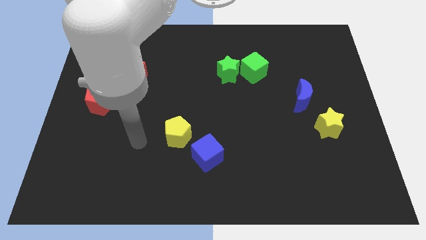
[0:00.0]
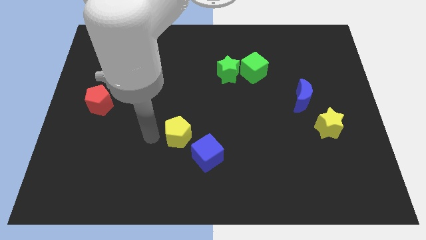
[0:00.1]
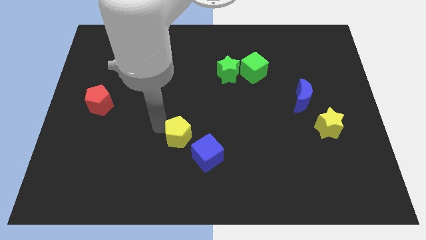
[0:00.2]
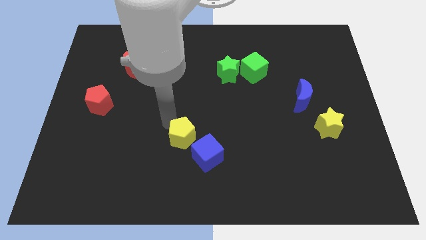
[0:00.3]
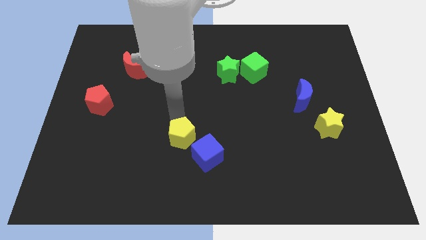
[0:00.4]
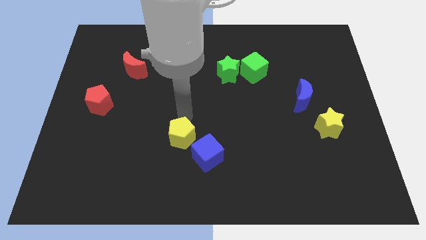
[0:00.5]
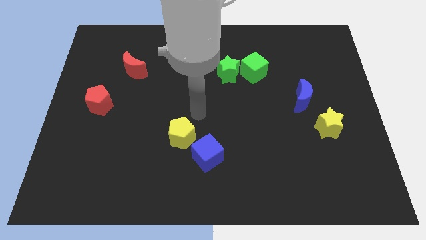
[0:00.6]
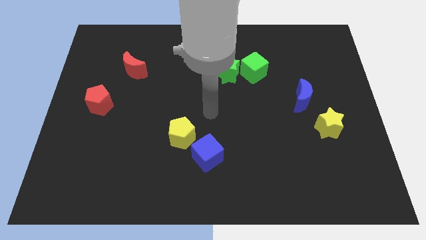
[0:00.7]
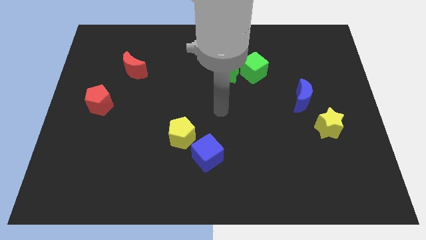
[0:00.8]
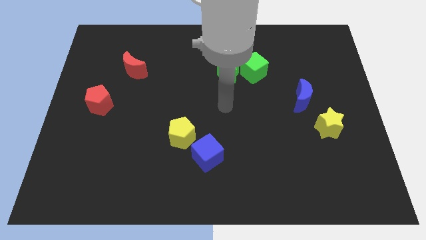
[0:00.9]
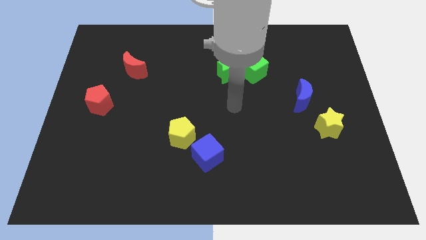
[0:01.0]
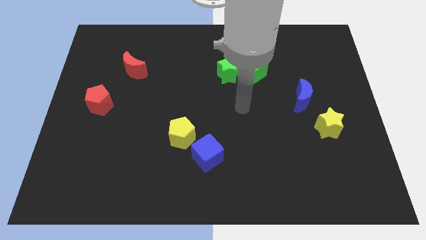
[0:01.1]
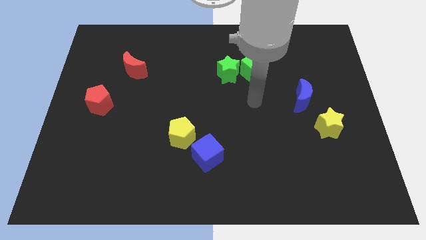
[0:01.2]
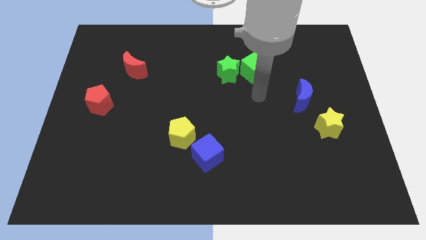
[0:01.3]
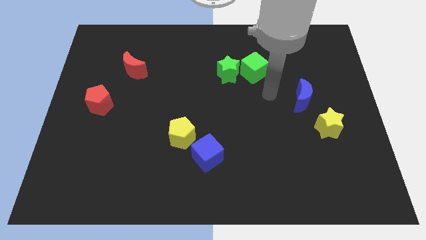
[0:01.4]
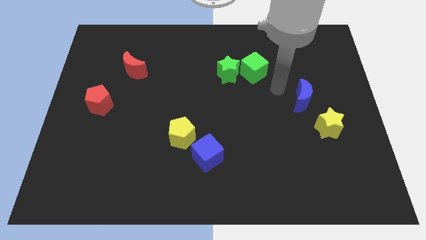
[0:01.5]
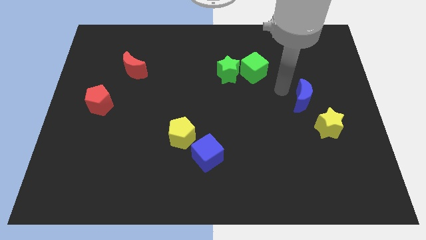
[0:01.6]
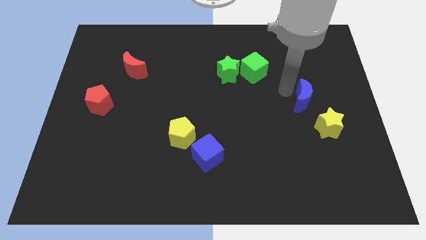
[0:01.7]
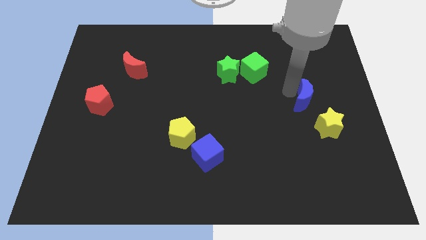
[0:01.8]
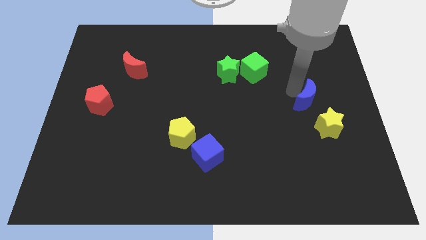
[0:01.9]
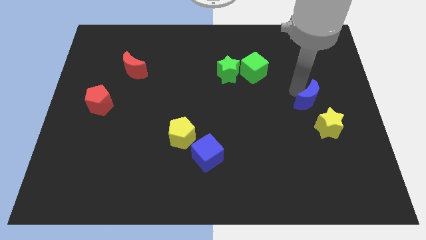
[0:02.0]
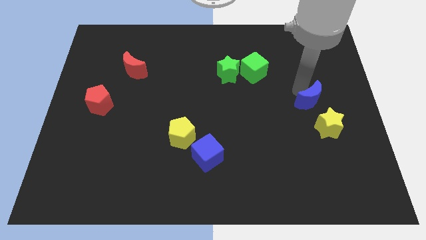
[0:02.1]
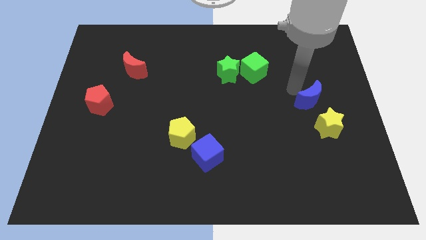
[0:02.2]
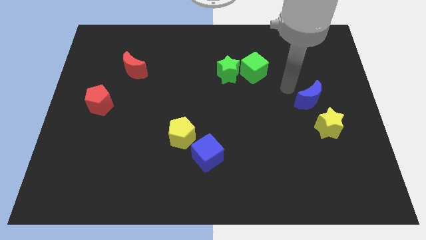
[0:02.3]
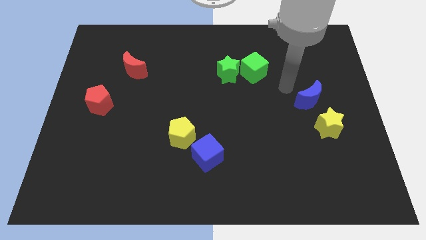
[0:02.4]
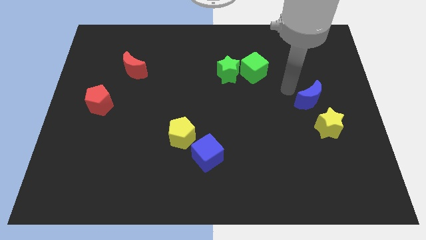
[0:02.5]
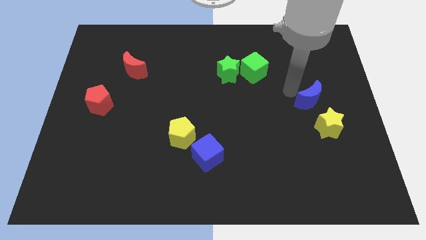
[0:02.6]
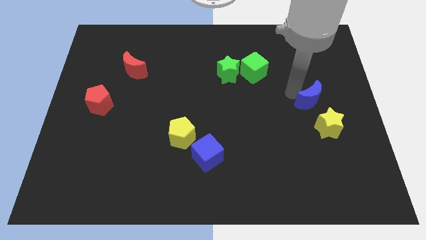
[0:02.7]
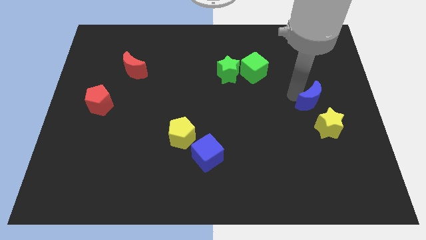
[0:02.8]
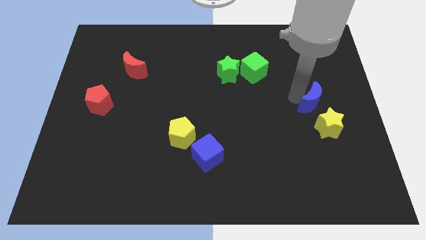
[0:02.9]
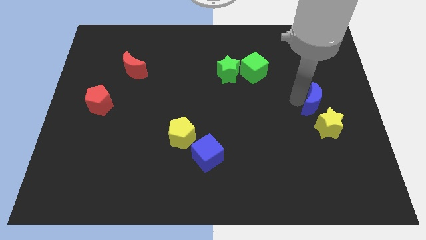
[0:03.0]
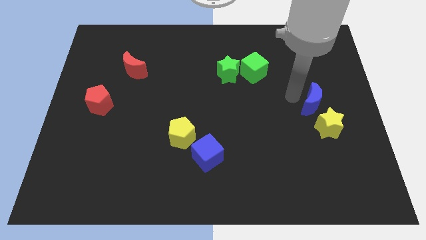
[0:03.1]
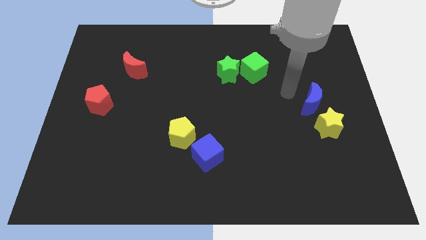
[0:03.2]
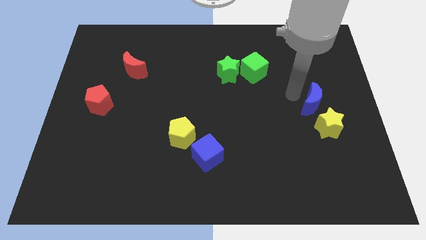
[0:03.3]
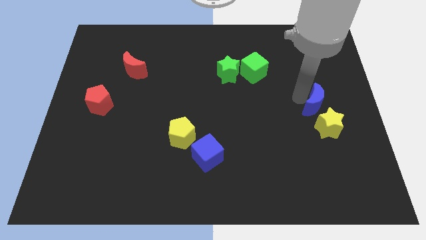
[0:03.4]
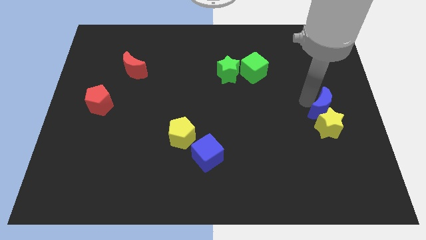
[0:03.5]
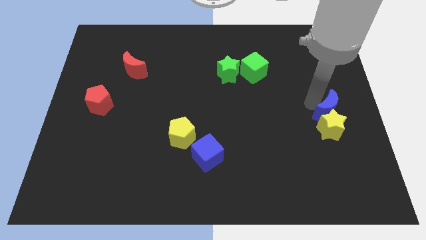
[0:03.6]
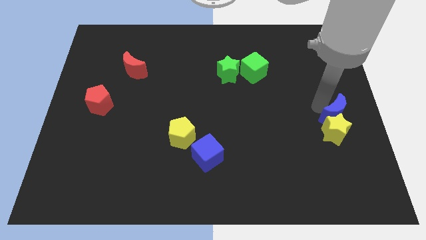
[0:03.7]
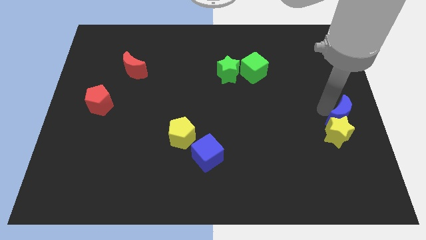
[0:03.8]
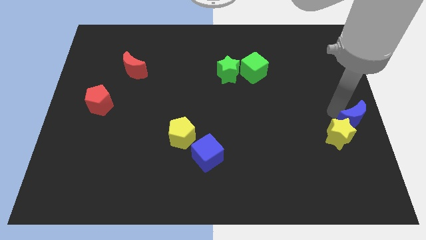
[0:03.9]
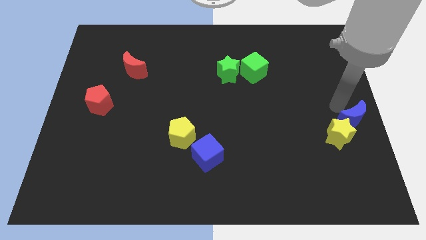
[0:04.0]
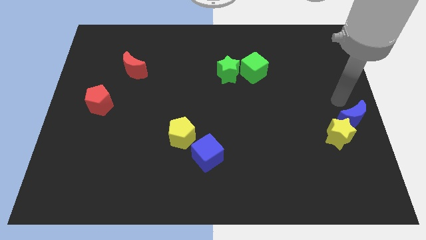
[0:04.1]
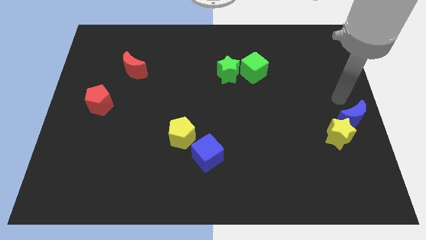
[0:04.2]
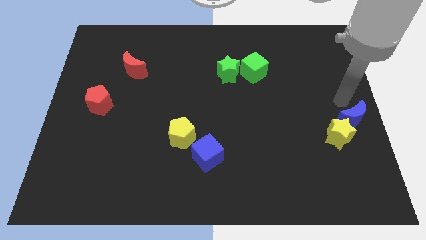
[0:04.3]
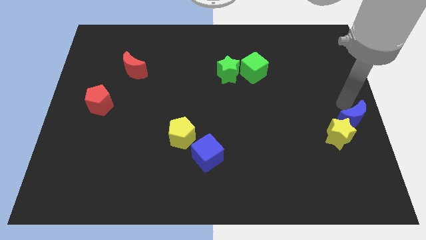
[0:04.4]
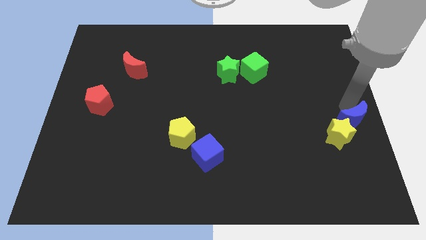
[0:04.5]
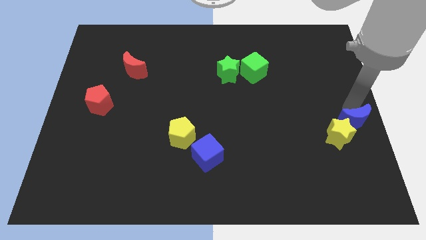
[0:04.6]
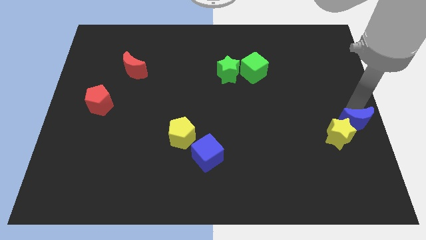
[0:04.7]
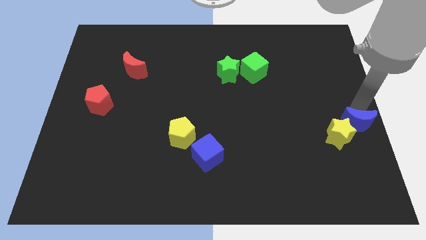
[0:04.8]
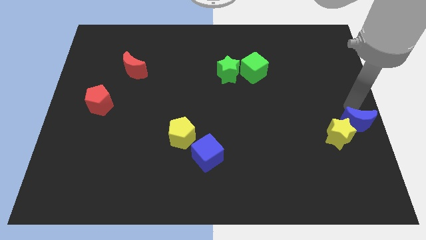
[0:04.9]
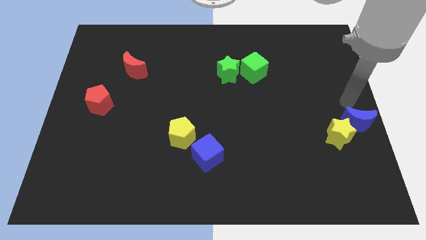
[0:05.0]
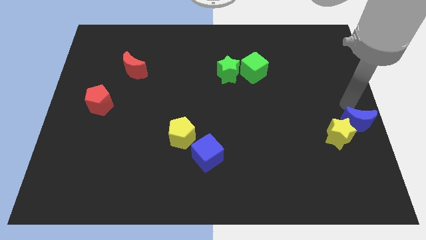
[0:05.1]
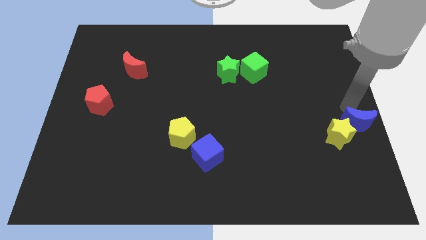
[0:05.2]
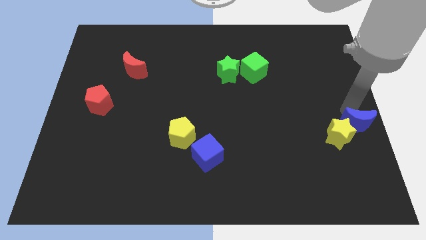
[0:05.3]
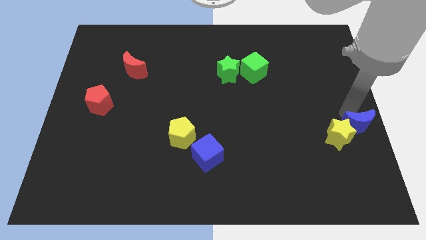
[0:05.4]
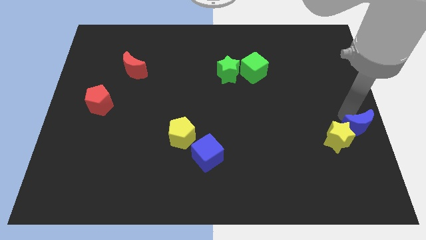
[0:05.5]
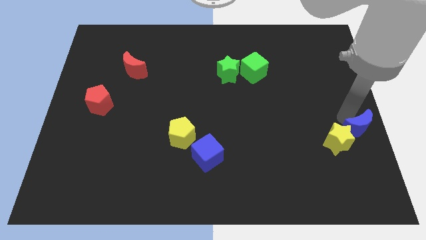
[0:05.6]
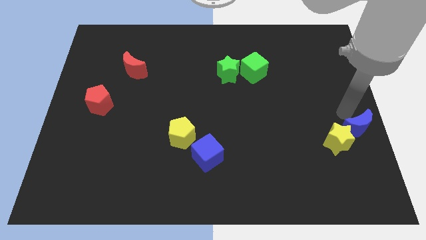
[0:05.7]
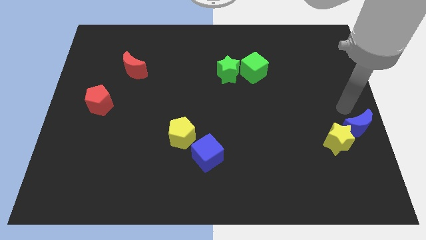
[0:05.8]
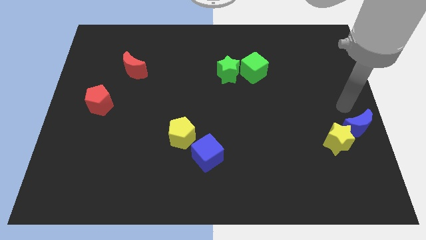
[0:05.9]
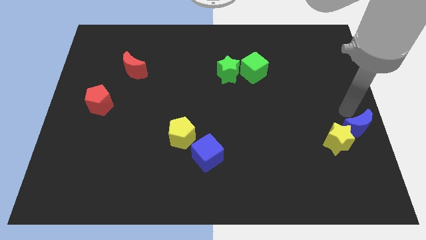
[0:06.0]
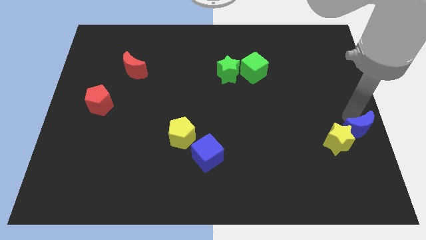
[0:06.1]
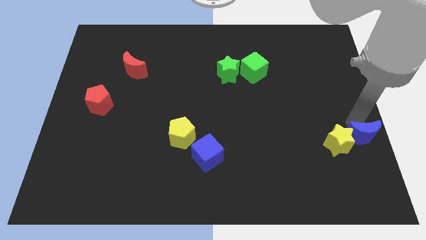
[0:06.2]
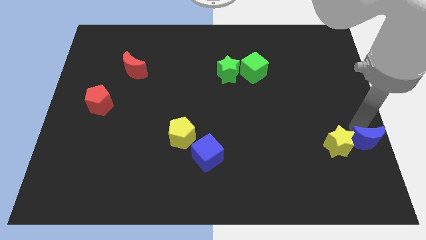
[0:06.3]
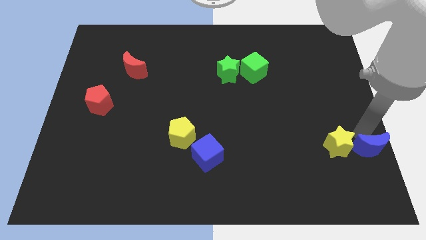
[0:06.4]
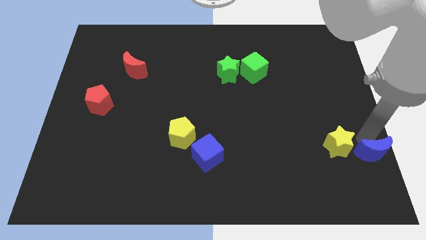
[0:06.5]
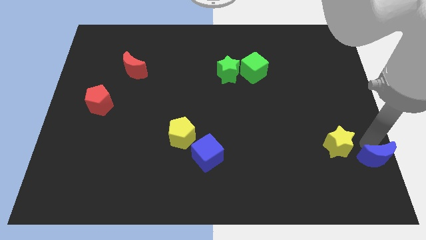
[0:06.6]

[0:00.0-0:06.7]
put the blue moon to the bottom right
